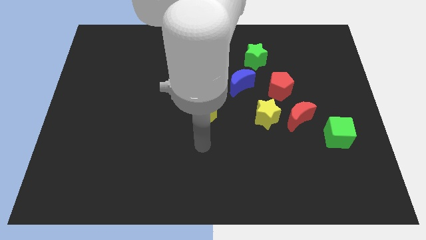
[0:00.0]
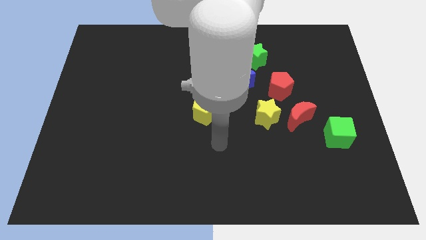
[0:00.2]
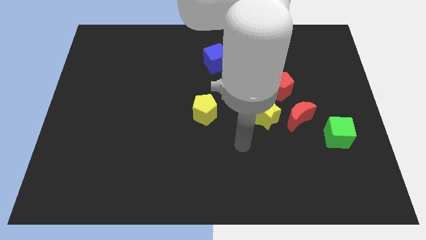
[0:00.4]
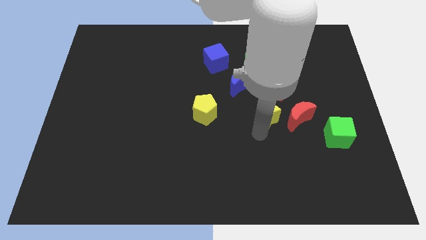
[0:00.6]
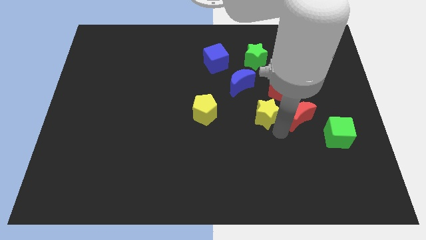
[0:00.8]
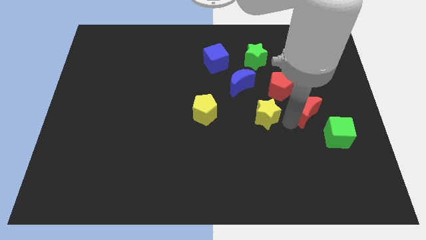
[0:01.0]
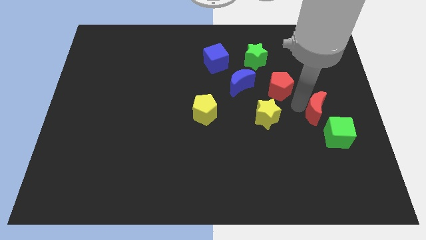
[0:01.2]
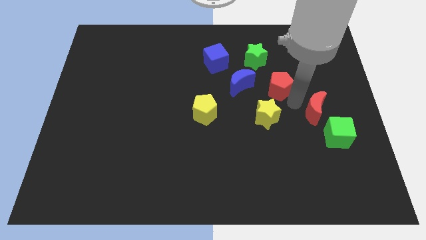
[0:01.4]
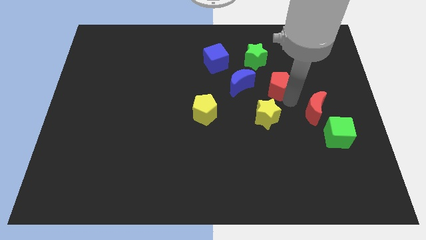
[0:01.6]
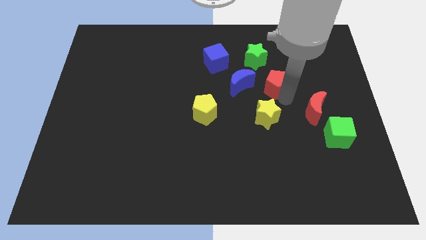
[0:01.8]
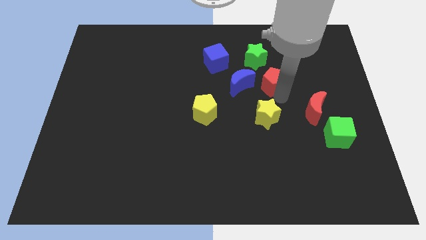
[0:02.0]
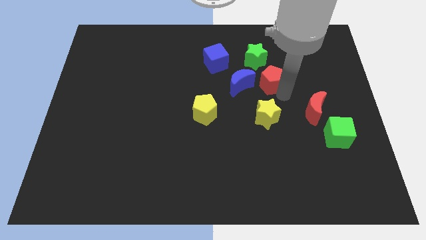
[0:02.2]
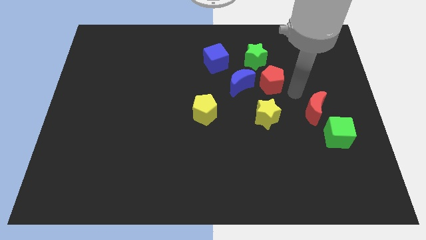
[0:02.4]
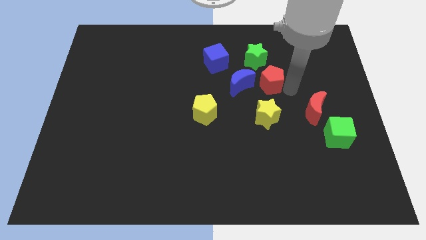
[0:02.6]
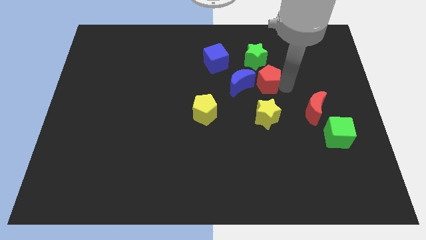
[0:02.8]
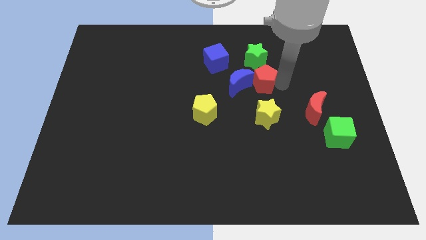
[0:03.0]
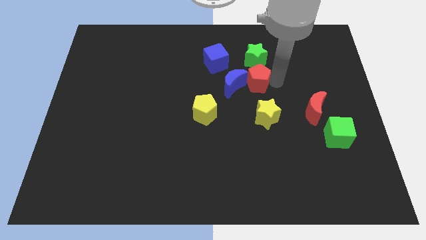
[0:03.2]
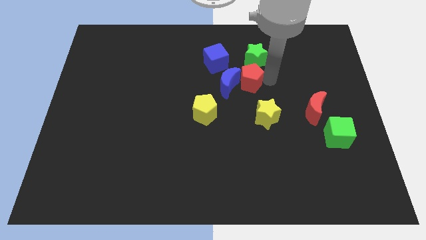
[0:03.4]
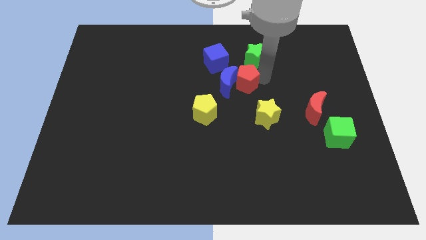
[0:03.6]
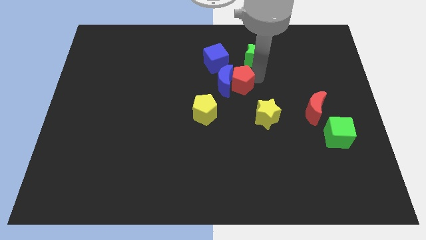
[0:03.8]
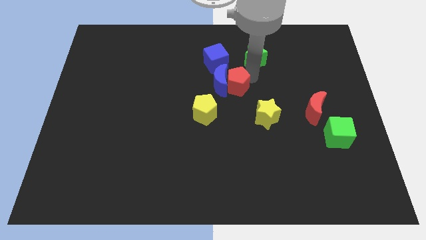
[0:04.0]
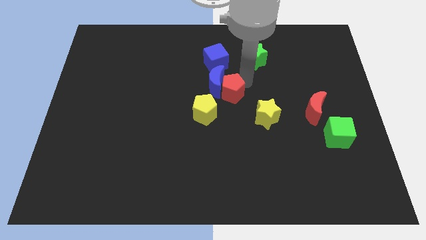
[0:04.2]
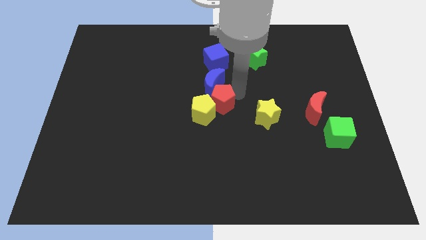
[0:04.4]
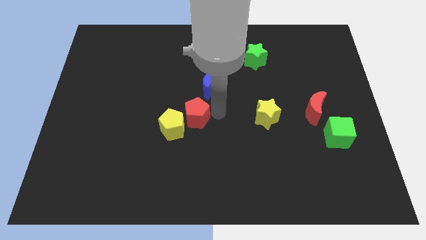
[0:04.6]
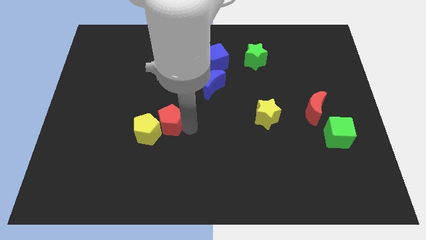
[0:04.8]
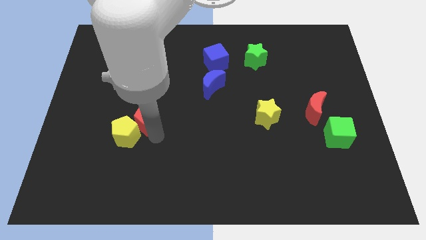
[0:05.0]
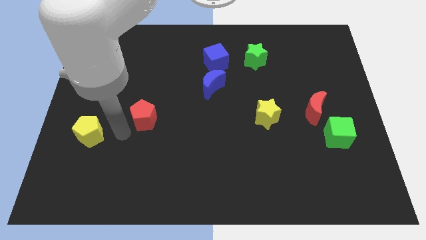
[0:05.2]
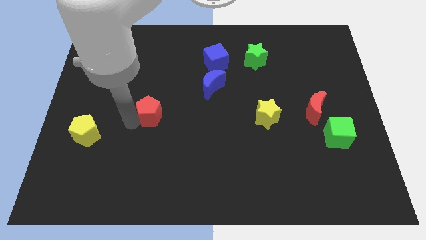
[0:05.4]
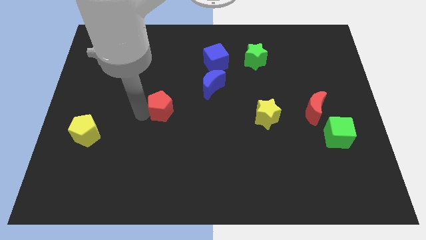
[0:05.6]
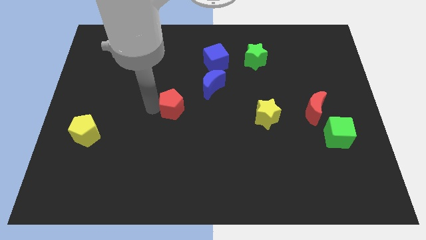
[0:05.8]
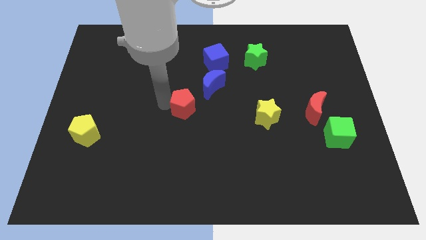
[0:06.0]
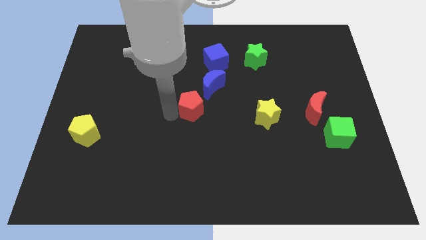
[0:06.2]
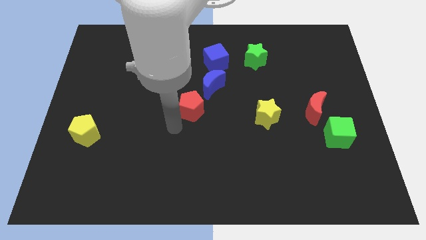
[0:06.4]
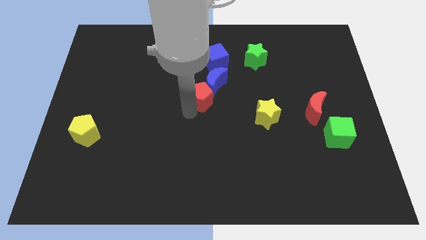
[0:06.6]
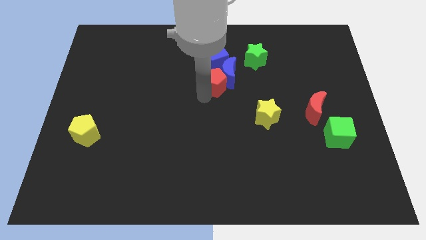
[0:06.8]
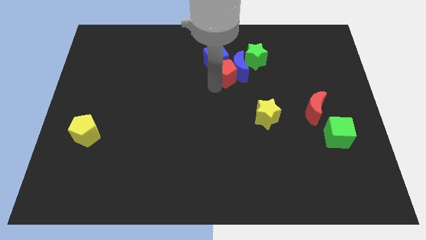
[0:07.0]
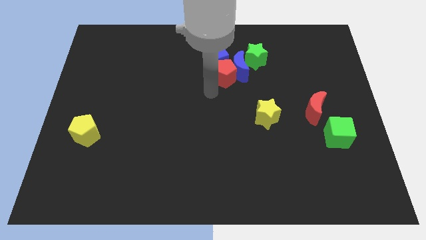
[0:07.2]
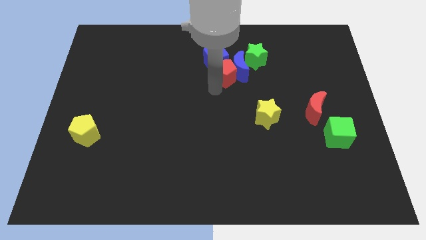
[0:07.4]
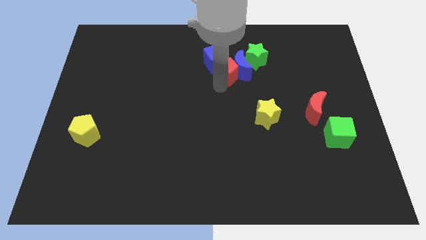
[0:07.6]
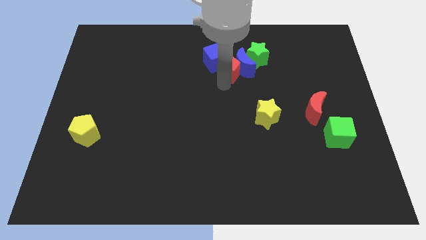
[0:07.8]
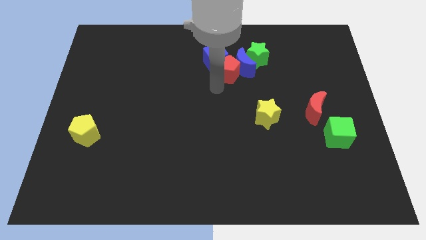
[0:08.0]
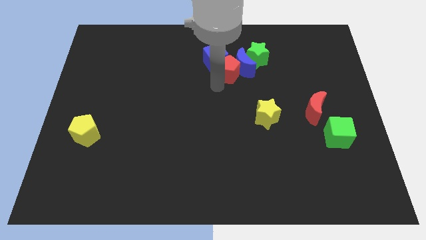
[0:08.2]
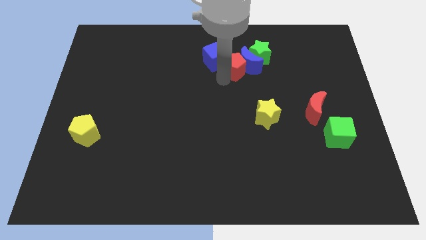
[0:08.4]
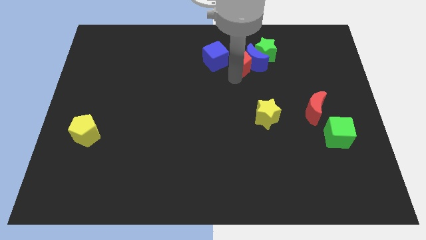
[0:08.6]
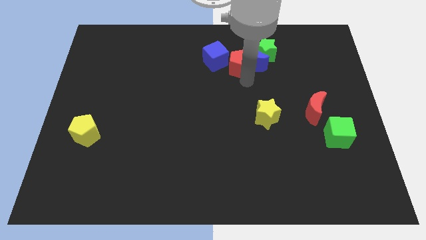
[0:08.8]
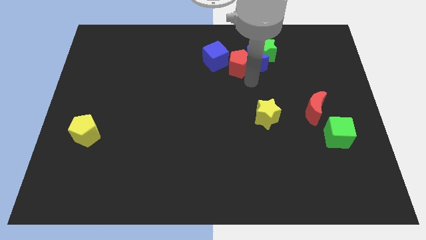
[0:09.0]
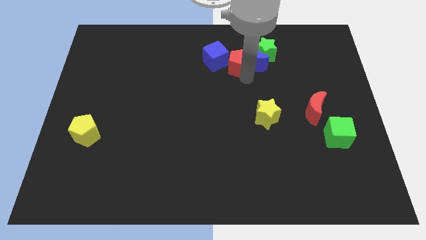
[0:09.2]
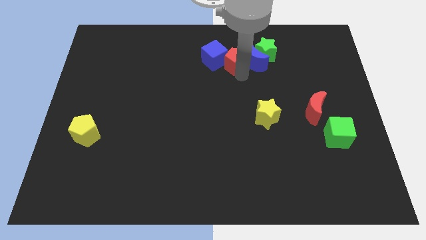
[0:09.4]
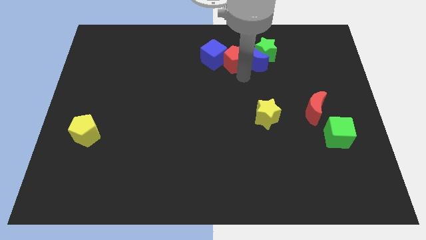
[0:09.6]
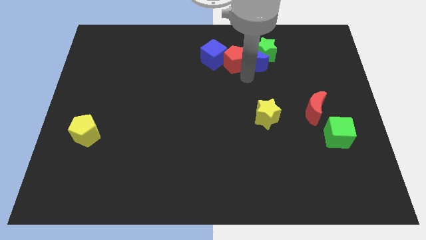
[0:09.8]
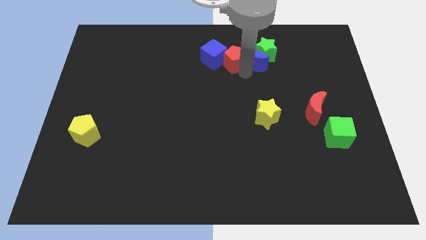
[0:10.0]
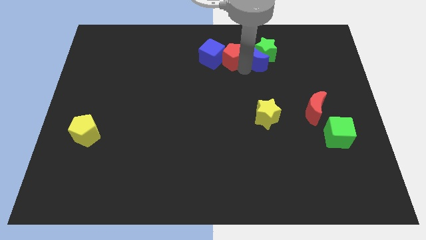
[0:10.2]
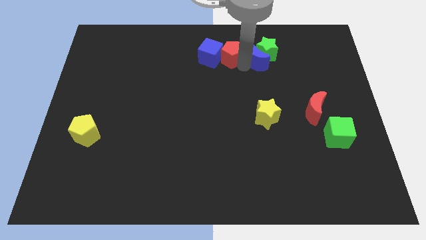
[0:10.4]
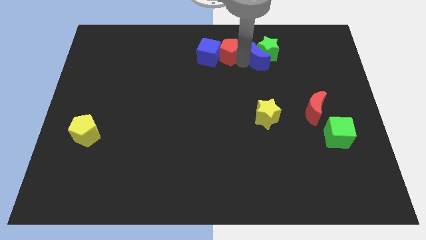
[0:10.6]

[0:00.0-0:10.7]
push the red pentagon to the top

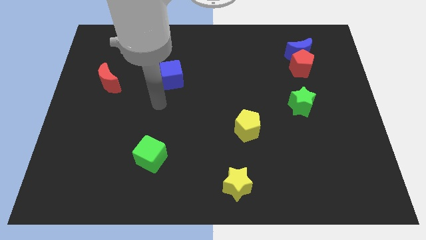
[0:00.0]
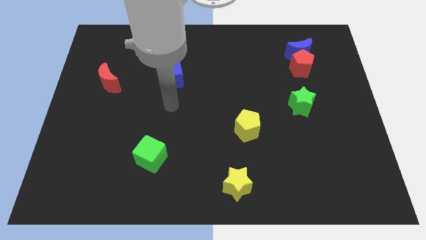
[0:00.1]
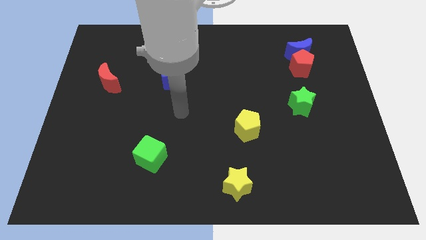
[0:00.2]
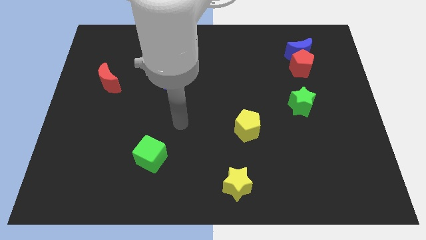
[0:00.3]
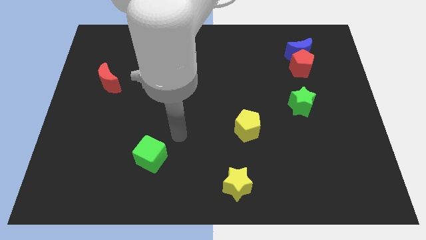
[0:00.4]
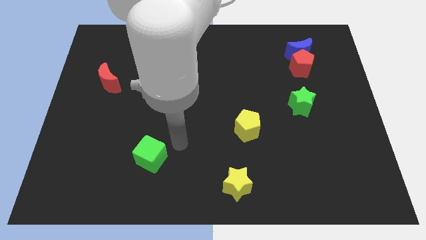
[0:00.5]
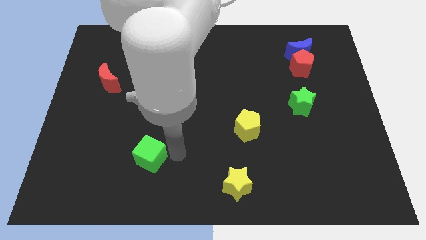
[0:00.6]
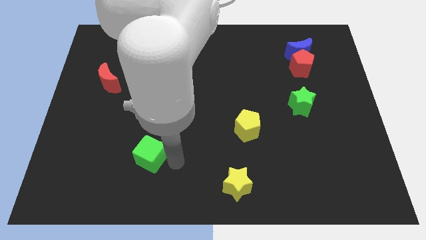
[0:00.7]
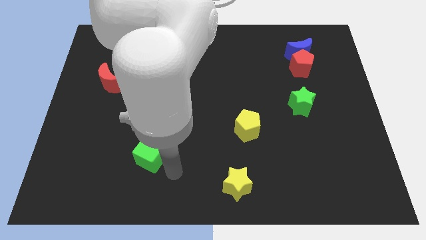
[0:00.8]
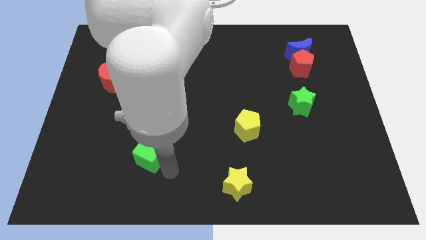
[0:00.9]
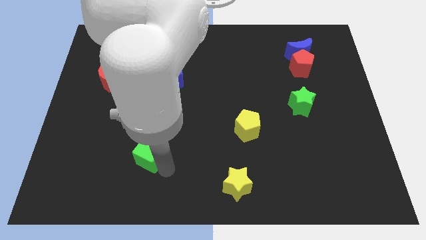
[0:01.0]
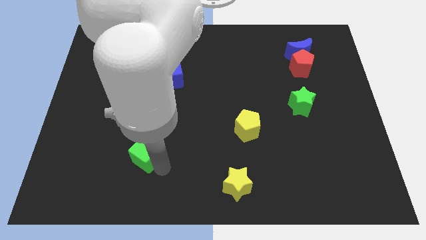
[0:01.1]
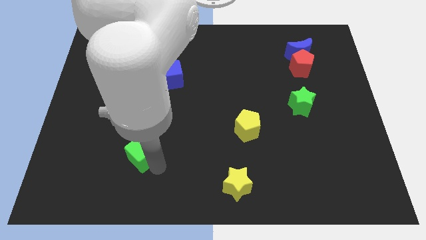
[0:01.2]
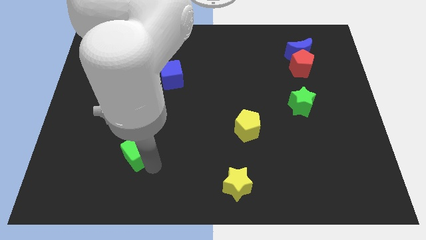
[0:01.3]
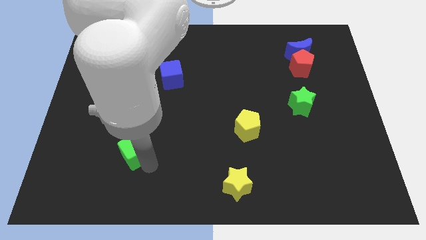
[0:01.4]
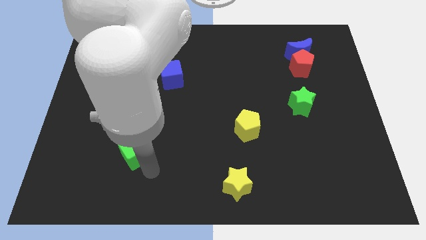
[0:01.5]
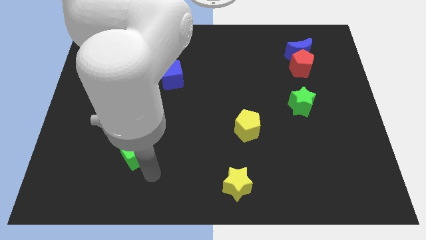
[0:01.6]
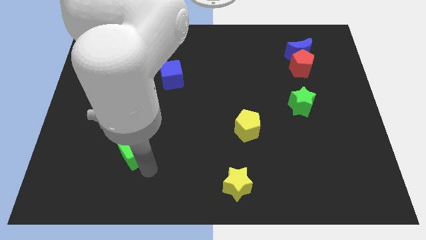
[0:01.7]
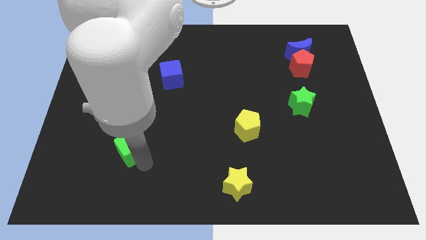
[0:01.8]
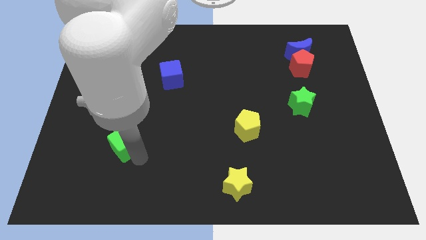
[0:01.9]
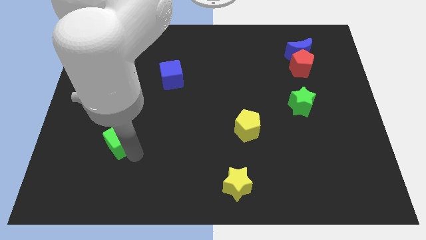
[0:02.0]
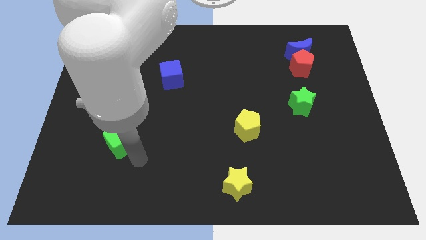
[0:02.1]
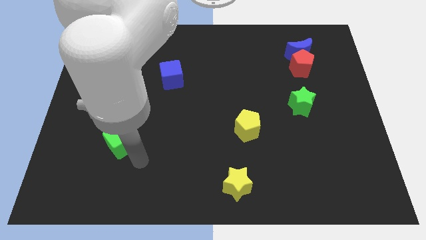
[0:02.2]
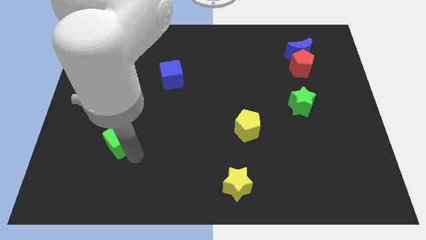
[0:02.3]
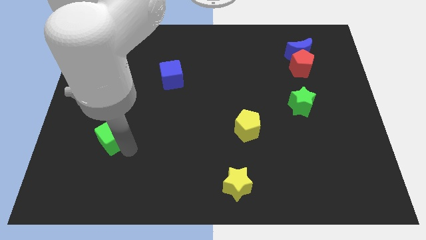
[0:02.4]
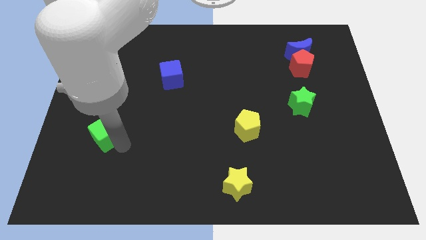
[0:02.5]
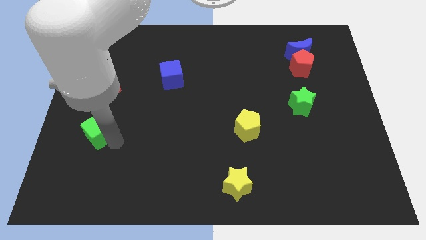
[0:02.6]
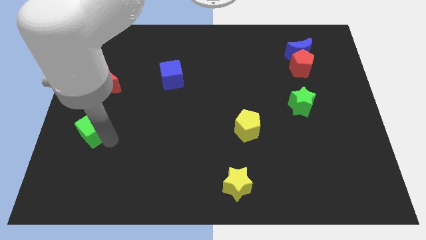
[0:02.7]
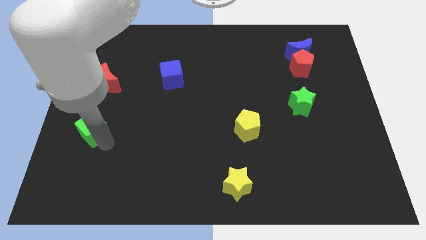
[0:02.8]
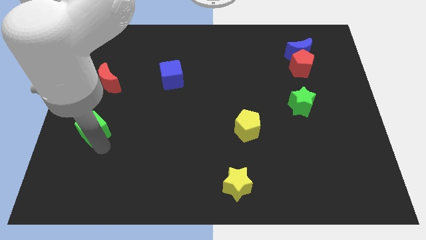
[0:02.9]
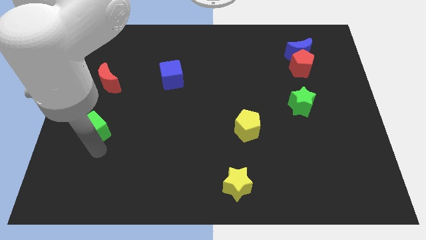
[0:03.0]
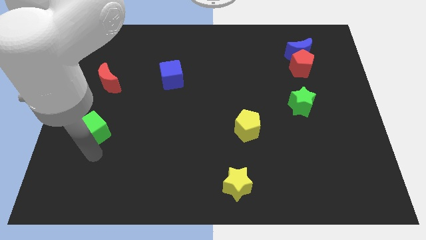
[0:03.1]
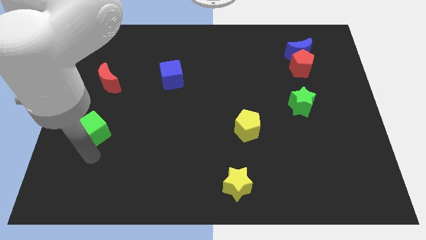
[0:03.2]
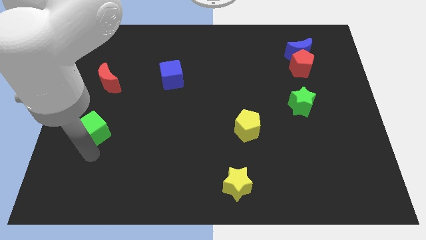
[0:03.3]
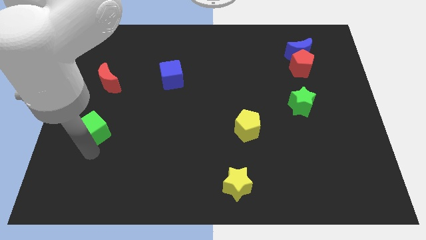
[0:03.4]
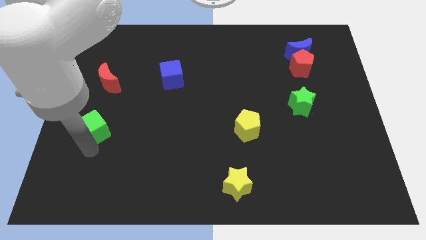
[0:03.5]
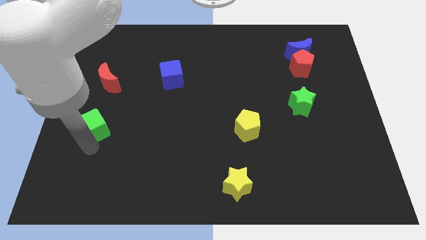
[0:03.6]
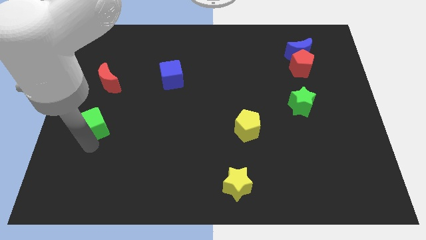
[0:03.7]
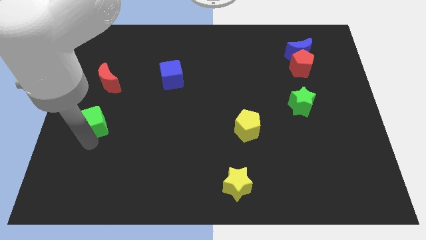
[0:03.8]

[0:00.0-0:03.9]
push the green cube to the left side
